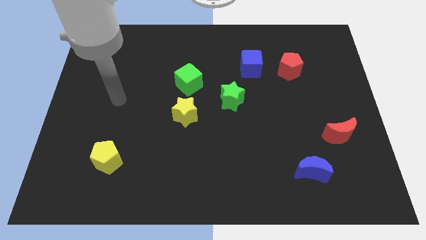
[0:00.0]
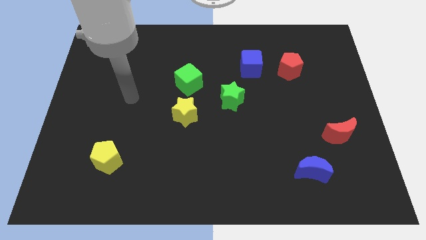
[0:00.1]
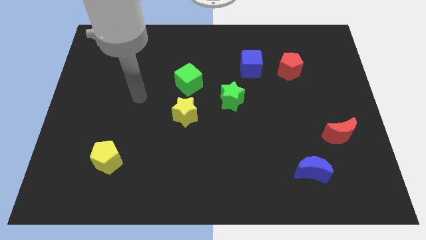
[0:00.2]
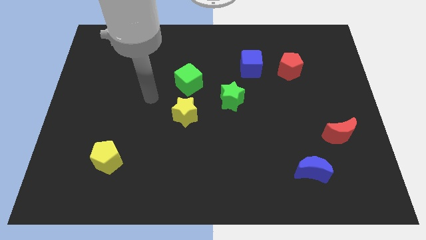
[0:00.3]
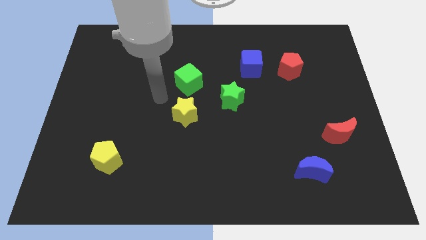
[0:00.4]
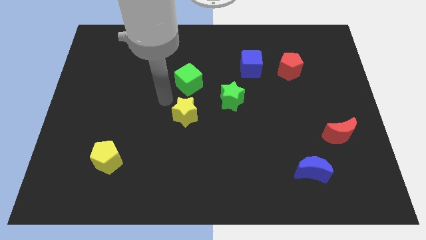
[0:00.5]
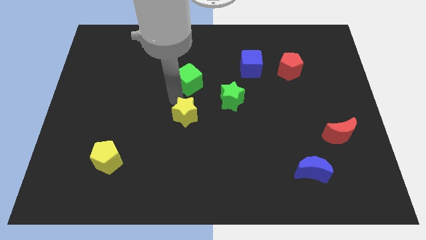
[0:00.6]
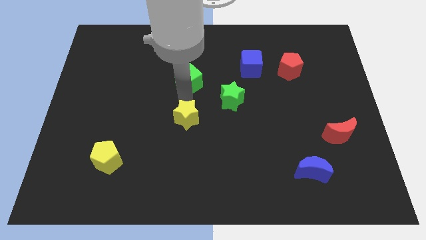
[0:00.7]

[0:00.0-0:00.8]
move the green cube away from the yellow star

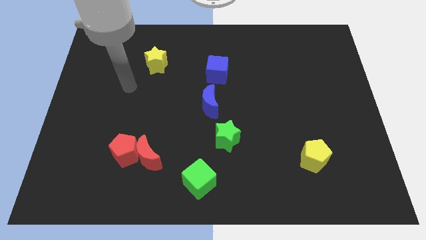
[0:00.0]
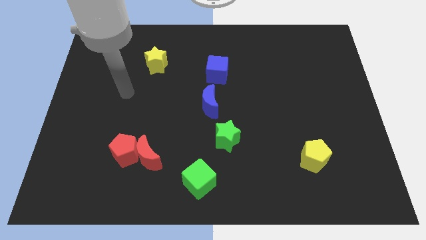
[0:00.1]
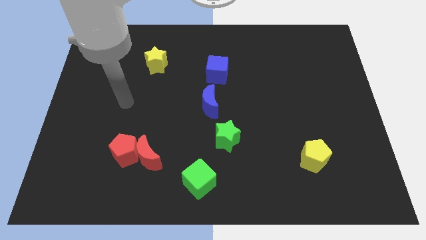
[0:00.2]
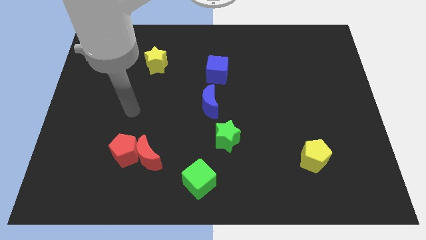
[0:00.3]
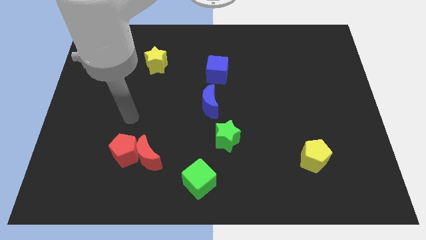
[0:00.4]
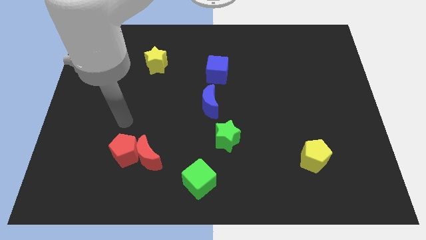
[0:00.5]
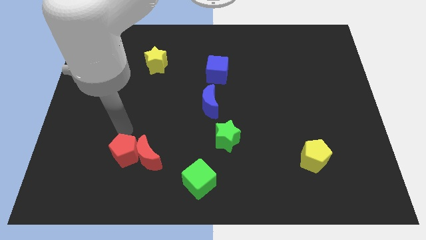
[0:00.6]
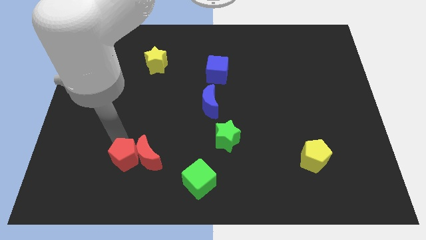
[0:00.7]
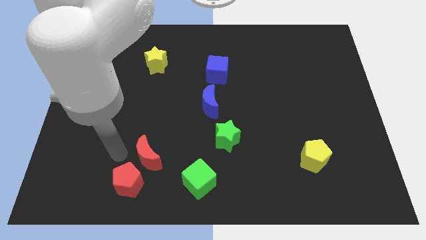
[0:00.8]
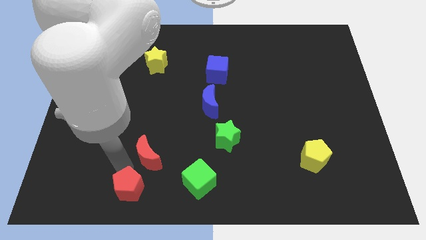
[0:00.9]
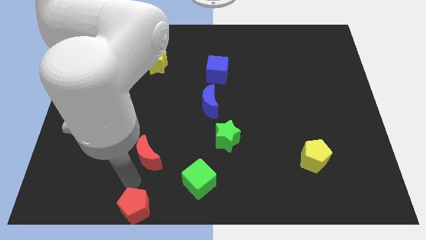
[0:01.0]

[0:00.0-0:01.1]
pull the red moon apart from the red pentagon

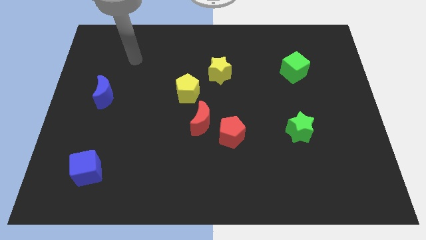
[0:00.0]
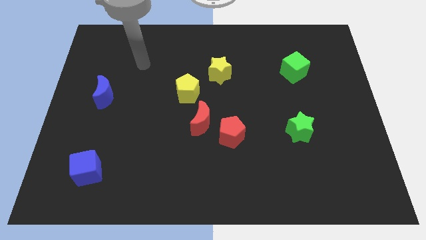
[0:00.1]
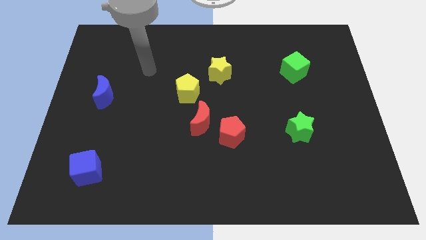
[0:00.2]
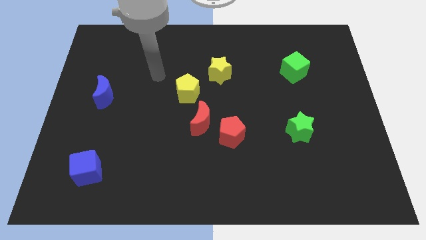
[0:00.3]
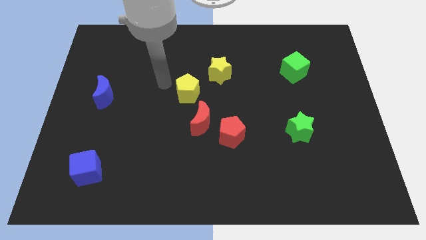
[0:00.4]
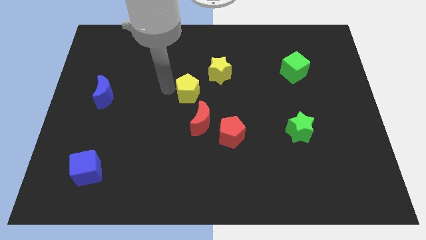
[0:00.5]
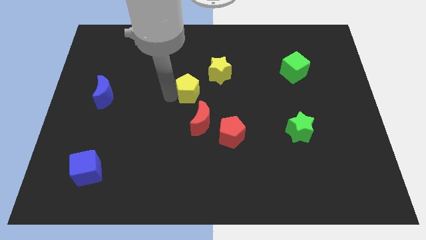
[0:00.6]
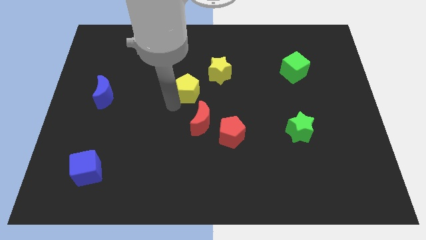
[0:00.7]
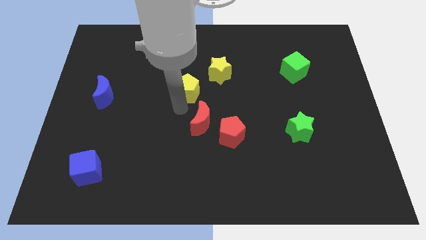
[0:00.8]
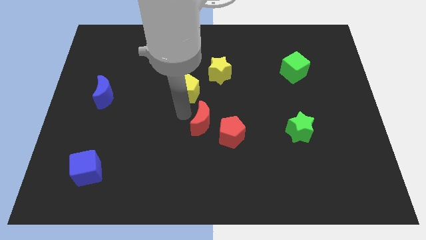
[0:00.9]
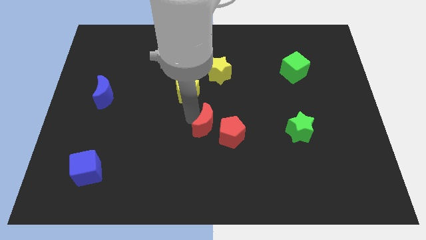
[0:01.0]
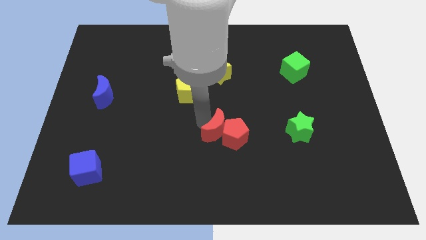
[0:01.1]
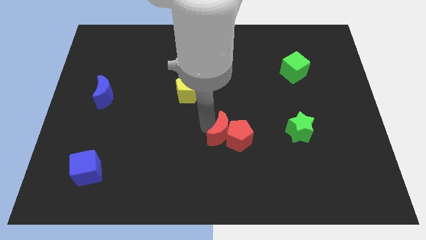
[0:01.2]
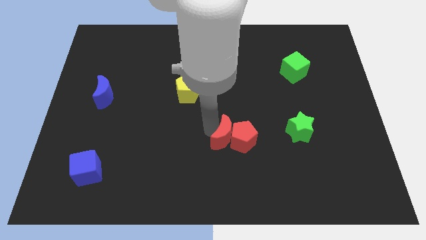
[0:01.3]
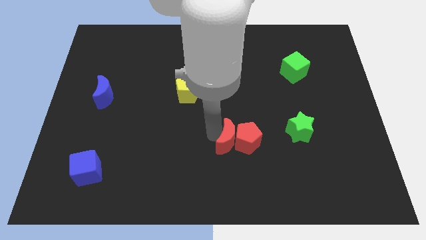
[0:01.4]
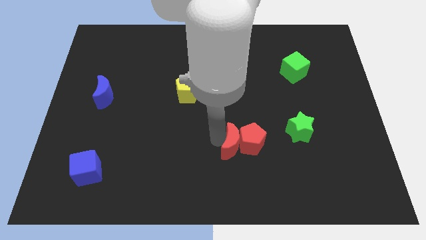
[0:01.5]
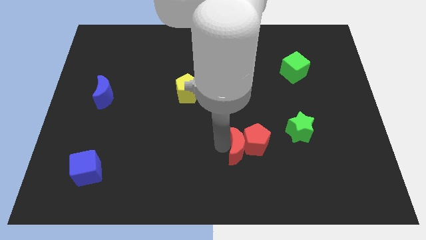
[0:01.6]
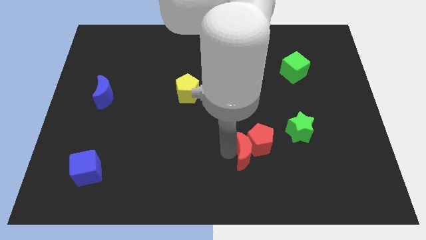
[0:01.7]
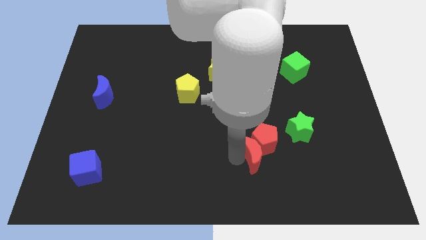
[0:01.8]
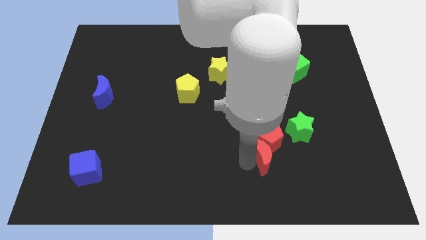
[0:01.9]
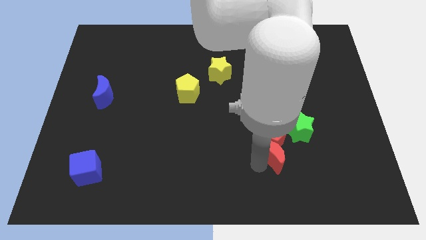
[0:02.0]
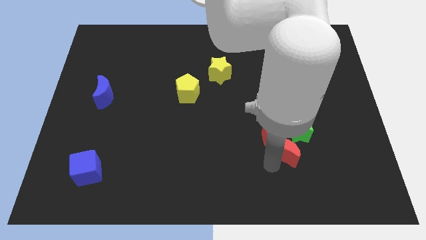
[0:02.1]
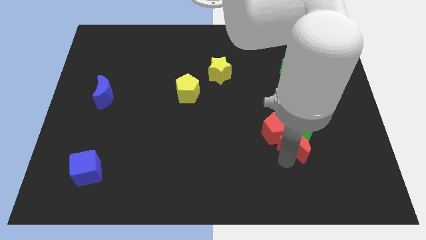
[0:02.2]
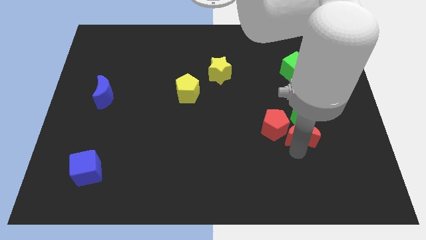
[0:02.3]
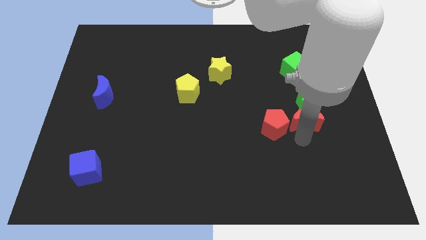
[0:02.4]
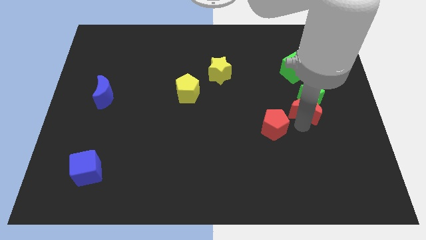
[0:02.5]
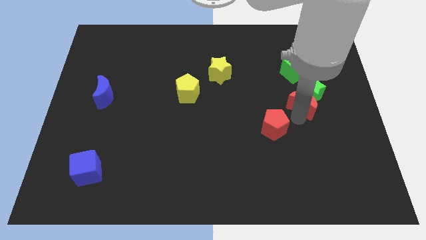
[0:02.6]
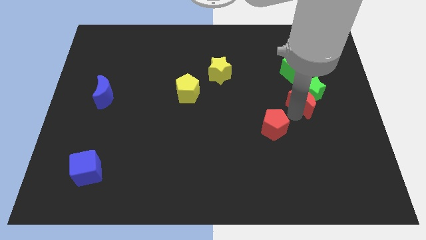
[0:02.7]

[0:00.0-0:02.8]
move the red pentagon away from the red moon

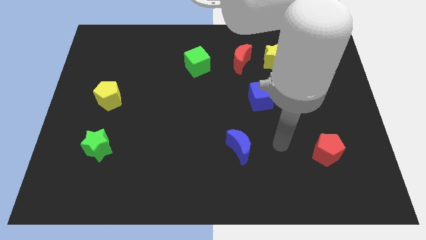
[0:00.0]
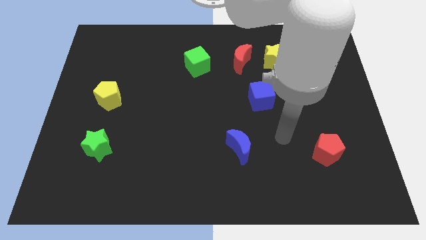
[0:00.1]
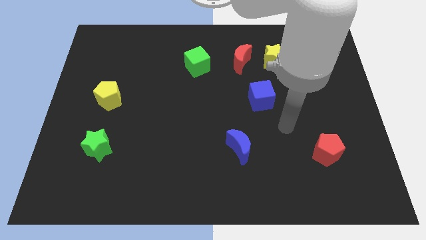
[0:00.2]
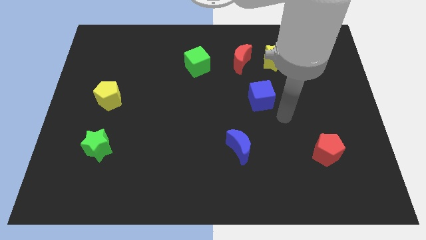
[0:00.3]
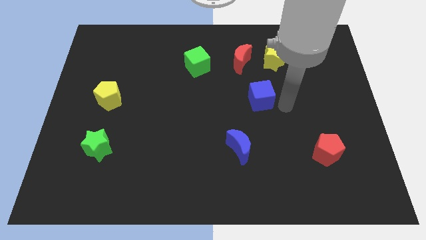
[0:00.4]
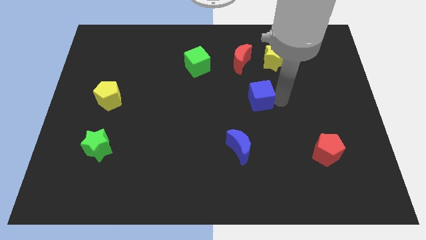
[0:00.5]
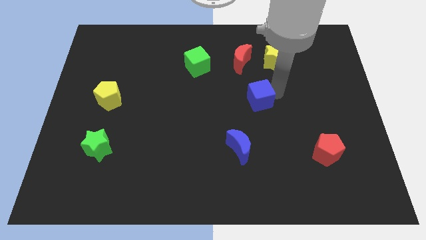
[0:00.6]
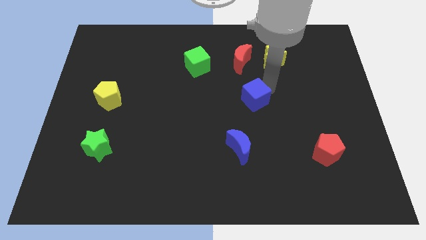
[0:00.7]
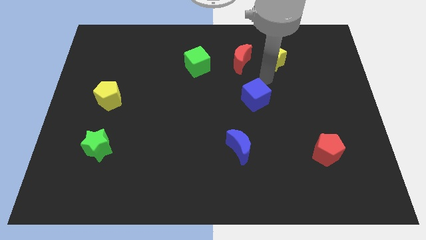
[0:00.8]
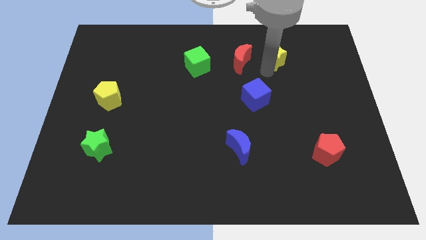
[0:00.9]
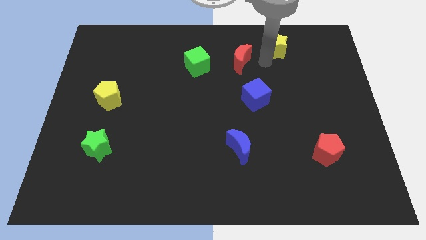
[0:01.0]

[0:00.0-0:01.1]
separate the red moon from the yellow star

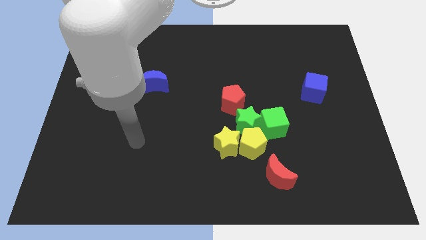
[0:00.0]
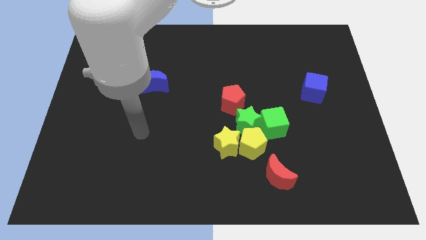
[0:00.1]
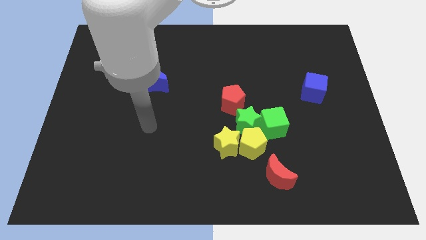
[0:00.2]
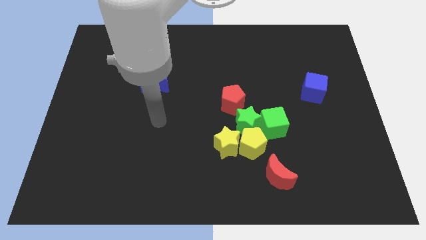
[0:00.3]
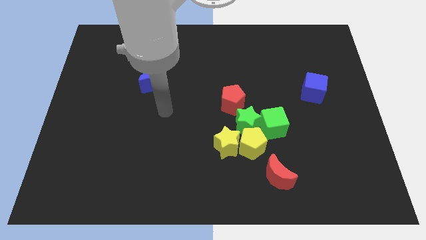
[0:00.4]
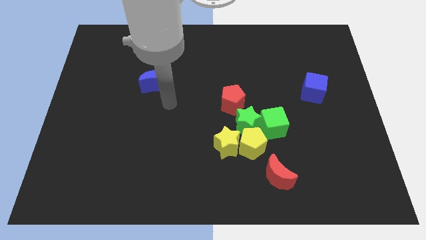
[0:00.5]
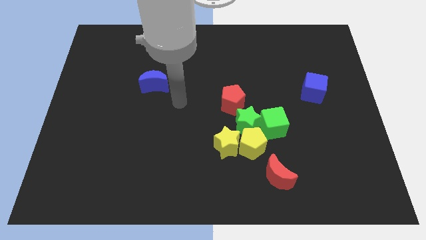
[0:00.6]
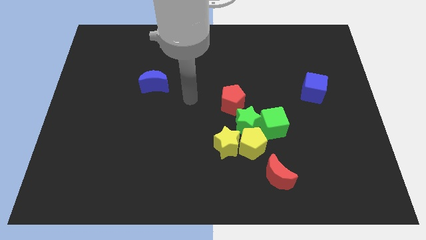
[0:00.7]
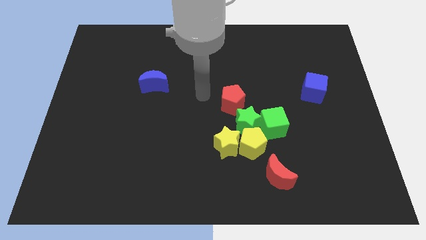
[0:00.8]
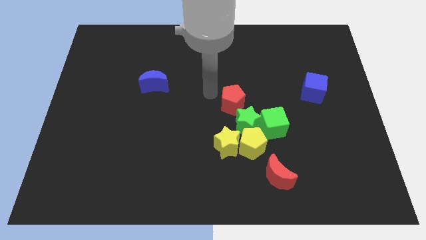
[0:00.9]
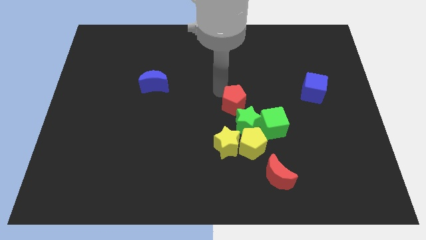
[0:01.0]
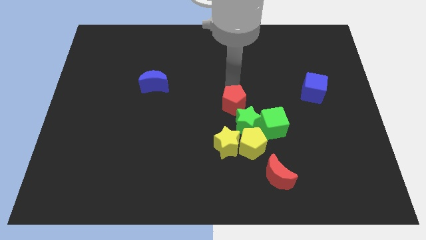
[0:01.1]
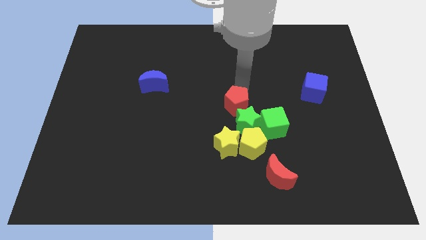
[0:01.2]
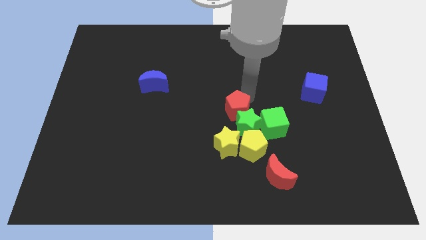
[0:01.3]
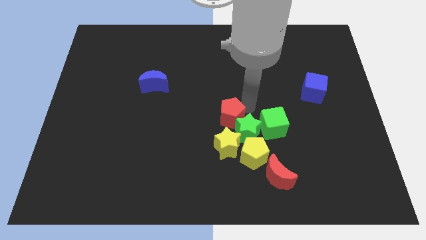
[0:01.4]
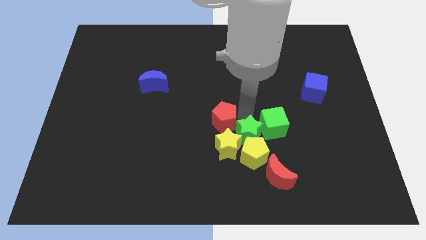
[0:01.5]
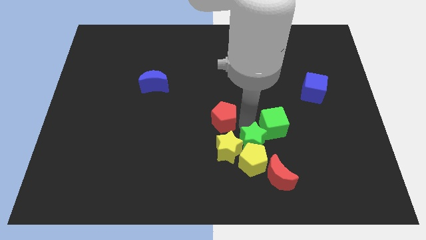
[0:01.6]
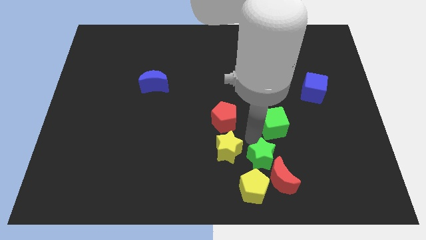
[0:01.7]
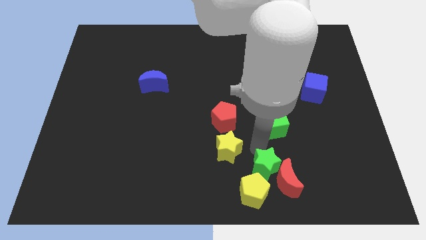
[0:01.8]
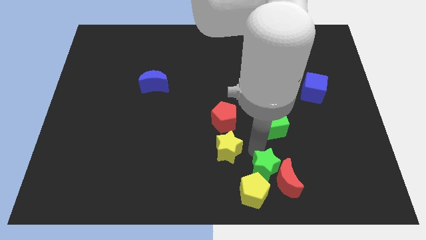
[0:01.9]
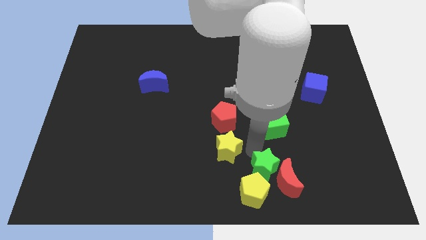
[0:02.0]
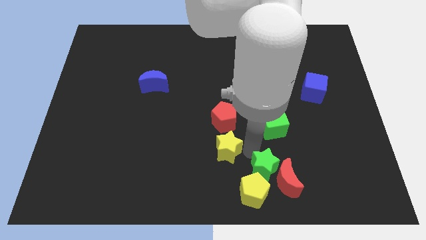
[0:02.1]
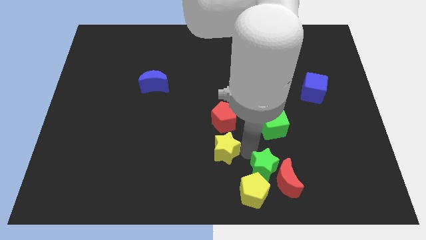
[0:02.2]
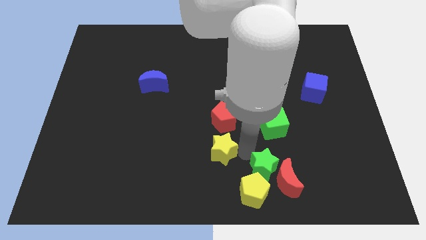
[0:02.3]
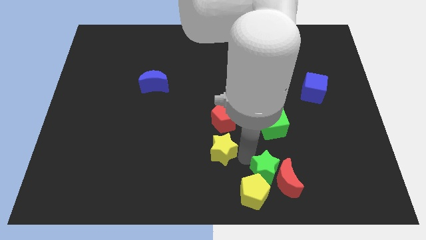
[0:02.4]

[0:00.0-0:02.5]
separate the yellow star from the yellow pentagon and green star

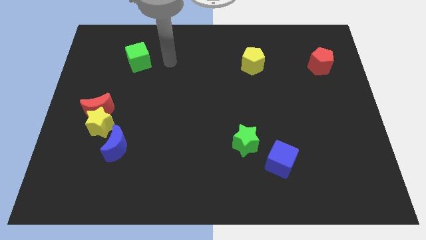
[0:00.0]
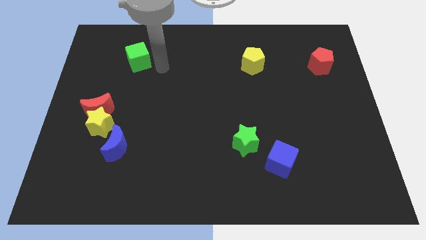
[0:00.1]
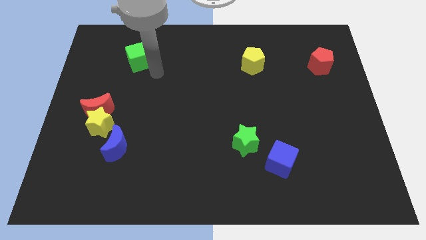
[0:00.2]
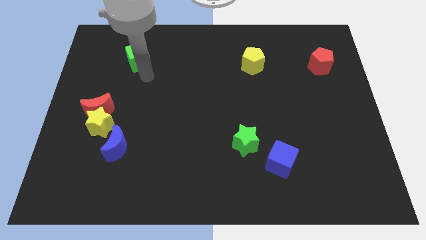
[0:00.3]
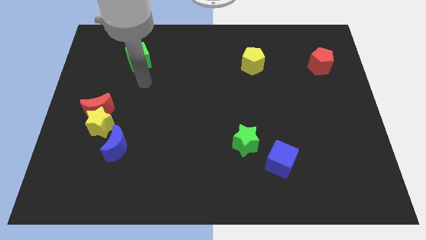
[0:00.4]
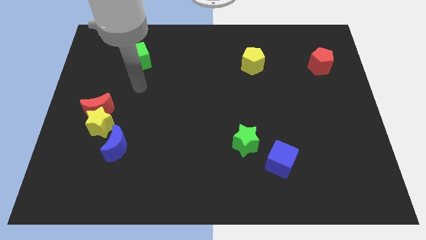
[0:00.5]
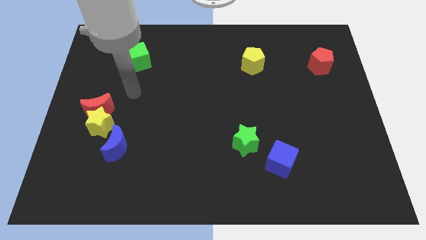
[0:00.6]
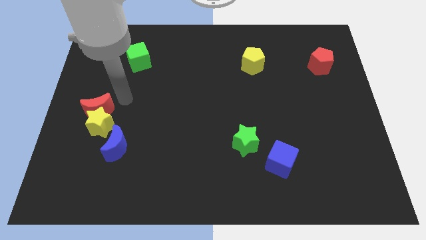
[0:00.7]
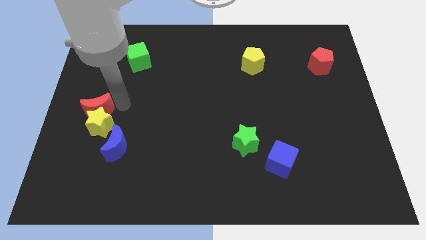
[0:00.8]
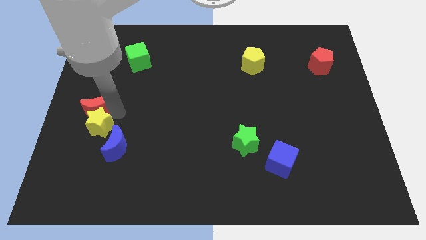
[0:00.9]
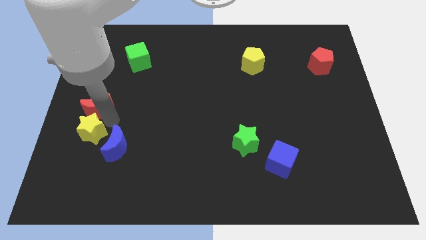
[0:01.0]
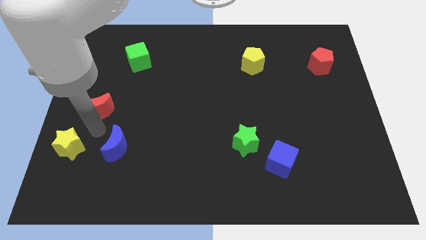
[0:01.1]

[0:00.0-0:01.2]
pull the red moon apart from the yellow star
